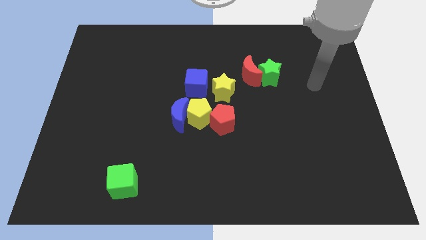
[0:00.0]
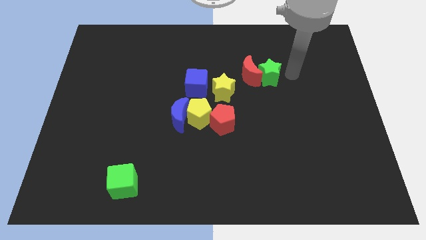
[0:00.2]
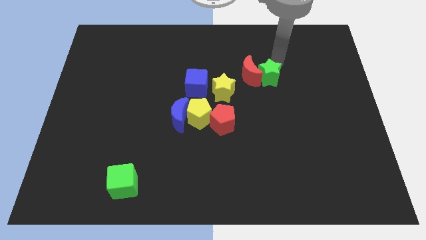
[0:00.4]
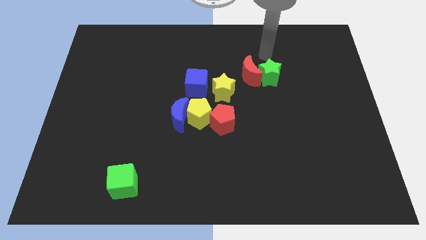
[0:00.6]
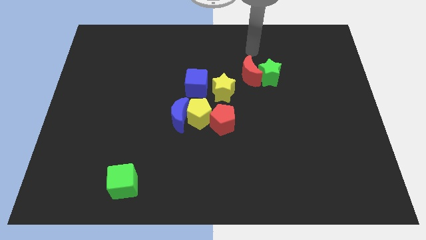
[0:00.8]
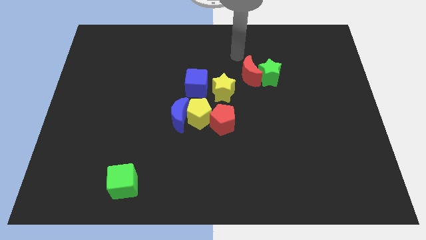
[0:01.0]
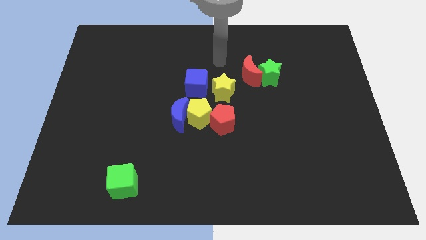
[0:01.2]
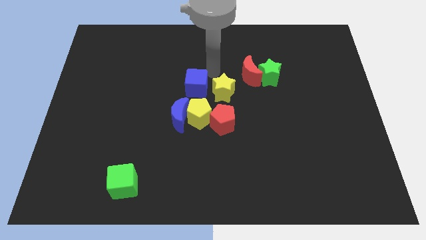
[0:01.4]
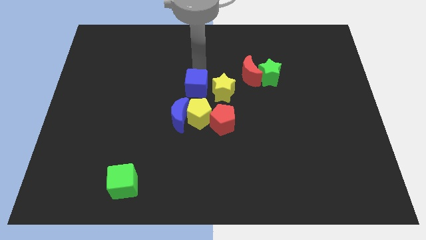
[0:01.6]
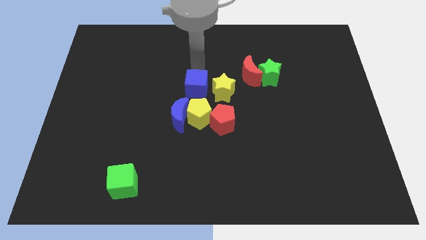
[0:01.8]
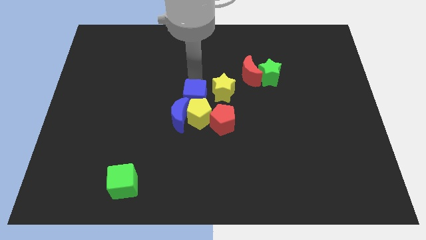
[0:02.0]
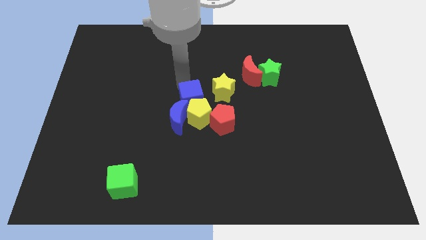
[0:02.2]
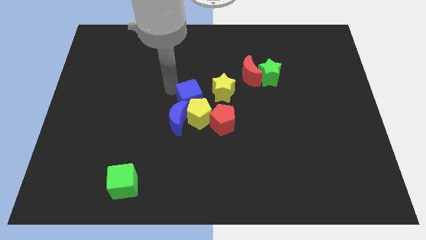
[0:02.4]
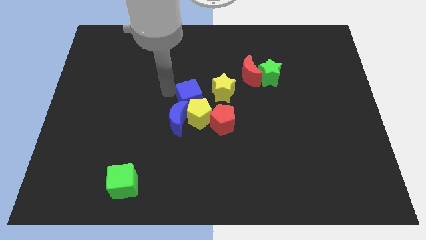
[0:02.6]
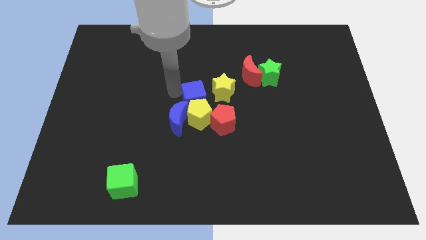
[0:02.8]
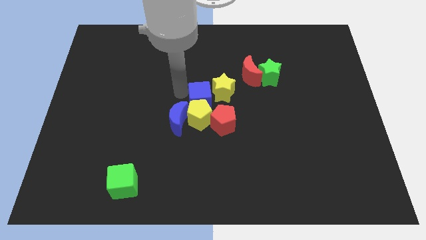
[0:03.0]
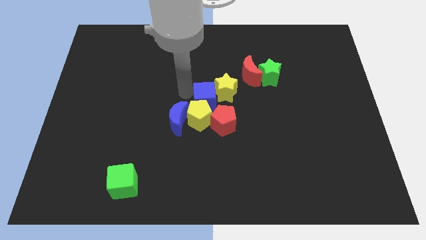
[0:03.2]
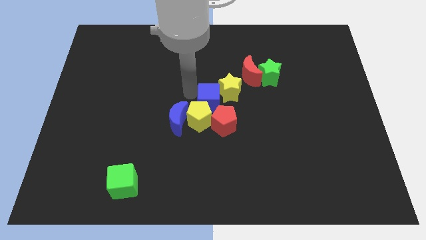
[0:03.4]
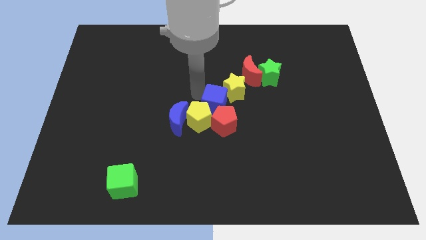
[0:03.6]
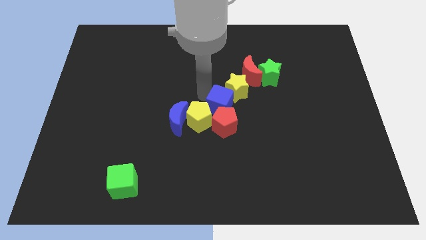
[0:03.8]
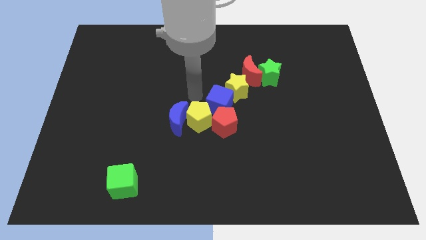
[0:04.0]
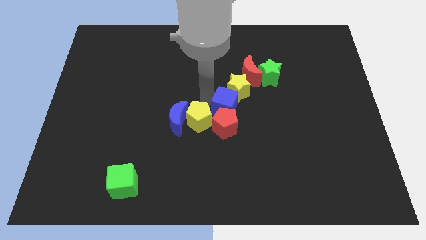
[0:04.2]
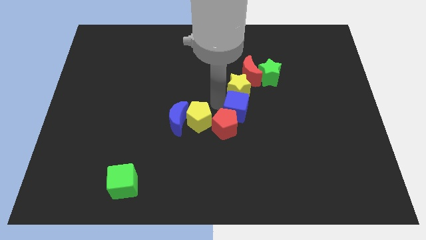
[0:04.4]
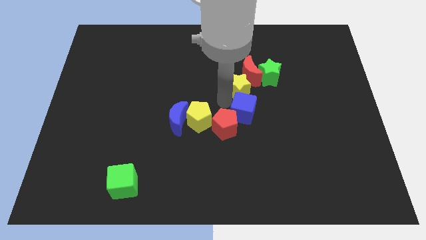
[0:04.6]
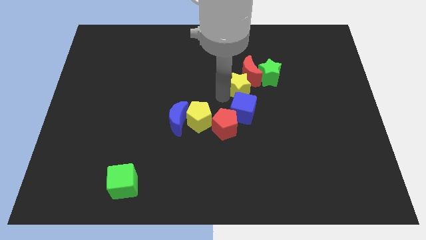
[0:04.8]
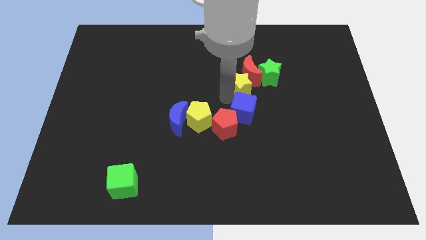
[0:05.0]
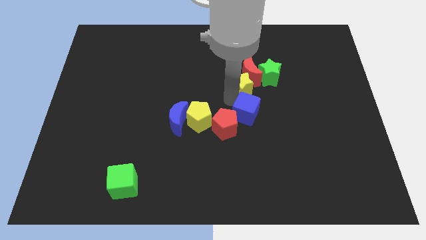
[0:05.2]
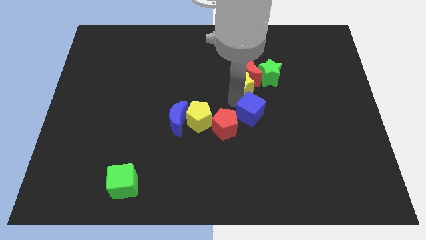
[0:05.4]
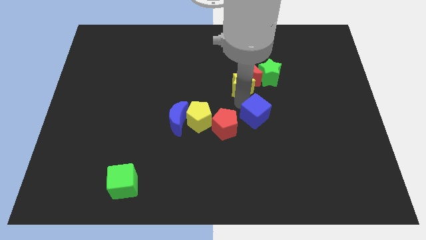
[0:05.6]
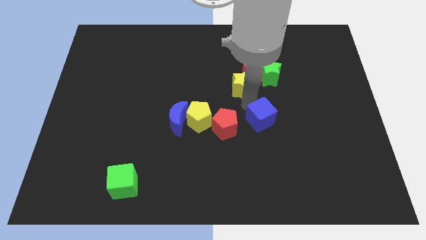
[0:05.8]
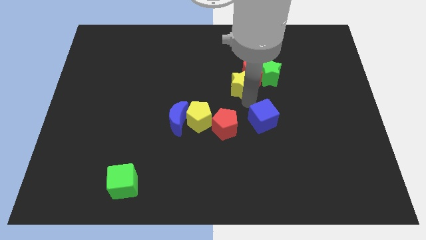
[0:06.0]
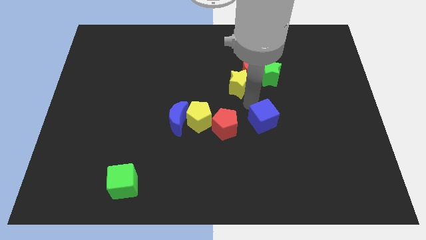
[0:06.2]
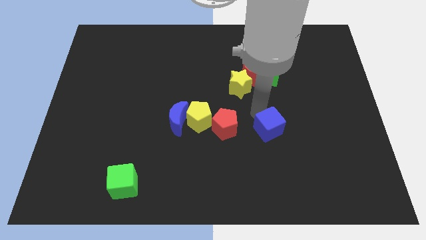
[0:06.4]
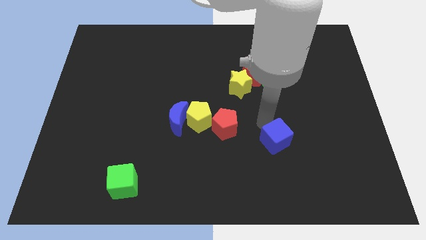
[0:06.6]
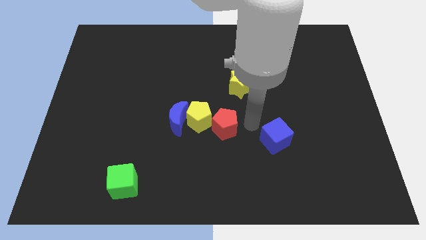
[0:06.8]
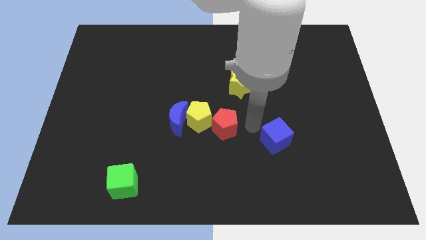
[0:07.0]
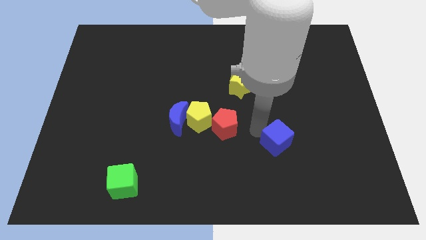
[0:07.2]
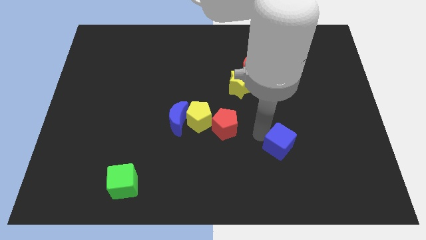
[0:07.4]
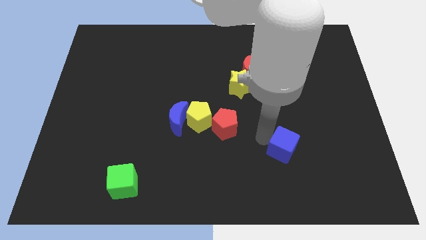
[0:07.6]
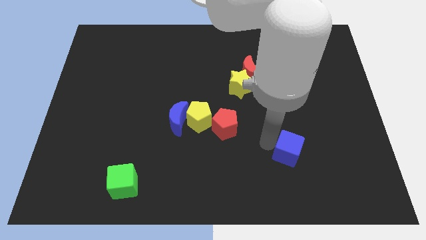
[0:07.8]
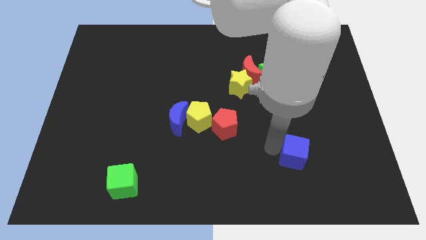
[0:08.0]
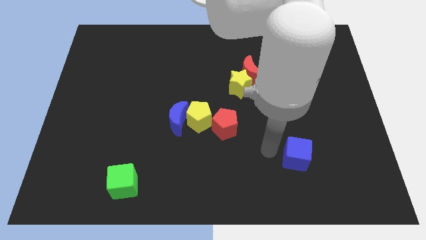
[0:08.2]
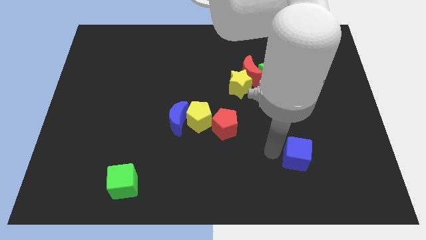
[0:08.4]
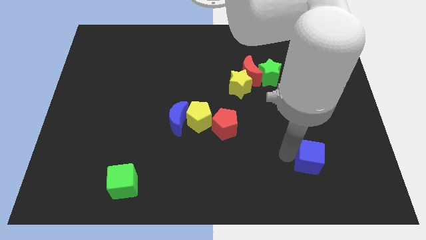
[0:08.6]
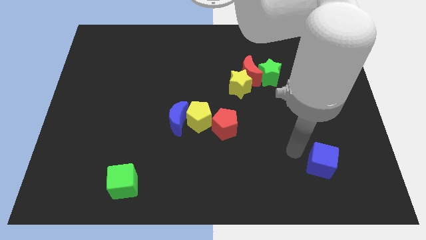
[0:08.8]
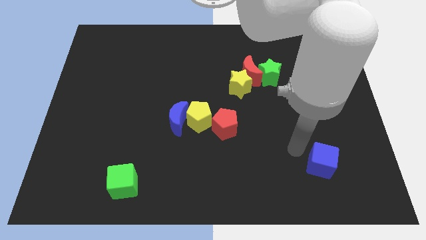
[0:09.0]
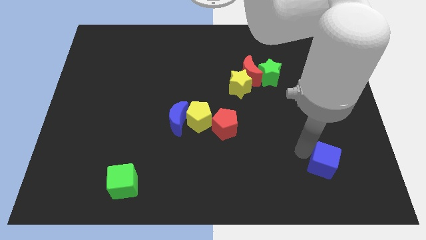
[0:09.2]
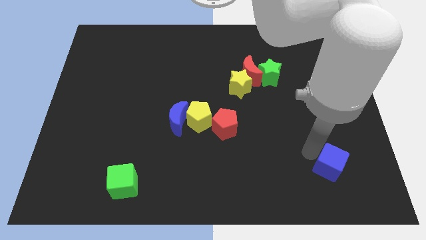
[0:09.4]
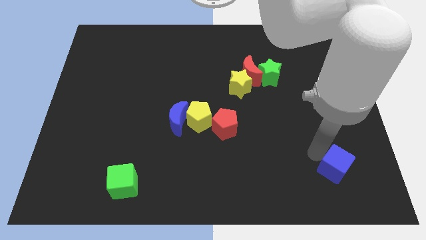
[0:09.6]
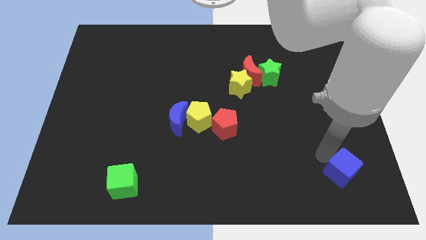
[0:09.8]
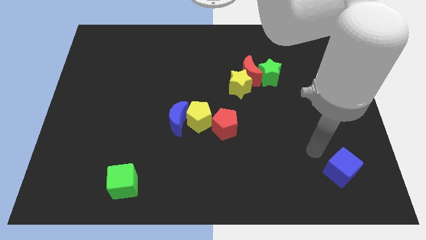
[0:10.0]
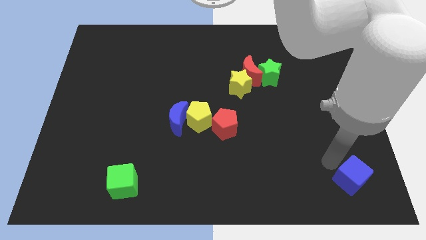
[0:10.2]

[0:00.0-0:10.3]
move the blue cube to the lower right corner

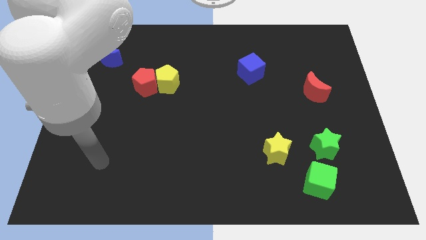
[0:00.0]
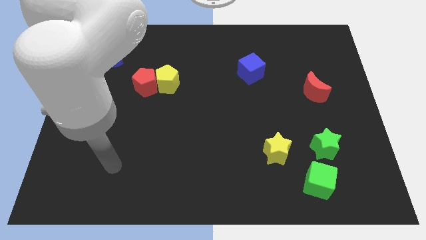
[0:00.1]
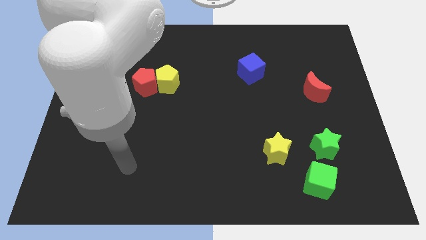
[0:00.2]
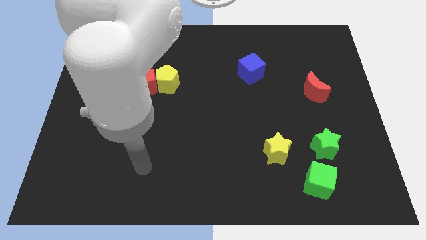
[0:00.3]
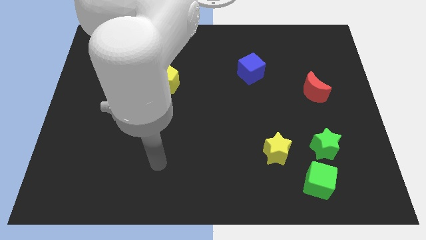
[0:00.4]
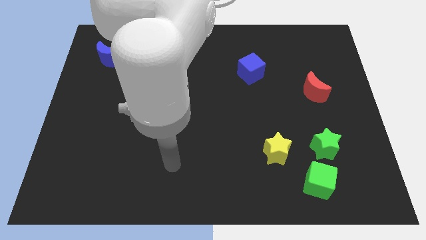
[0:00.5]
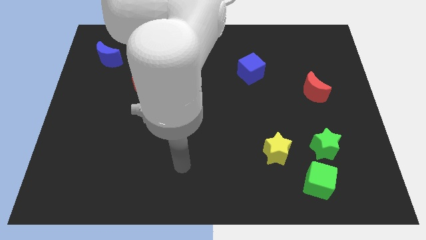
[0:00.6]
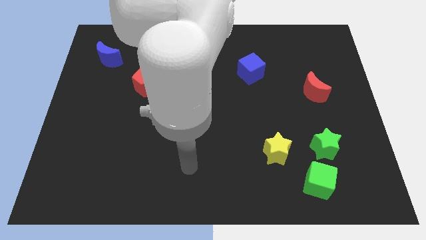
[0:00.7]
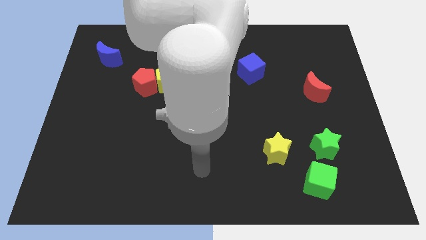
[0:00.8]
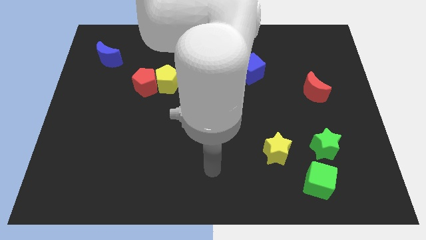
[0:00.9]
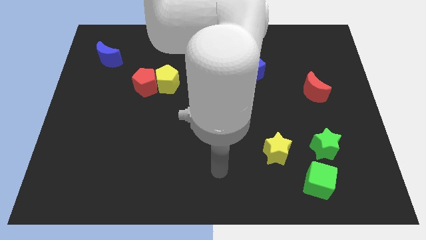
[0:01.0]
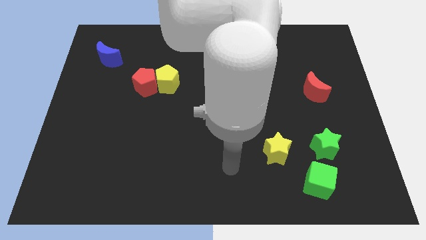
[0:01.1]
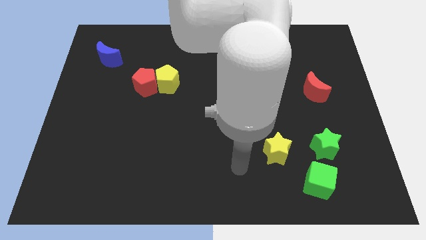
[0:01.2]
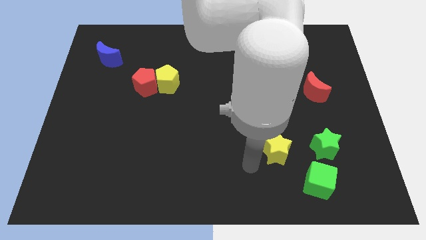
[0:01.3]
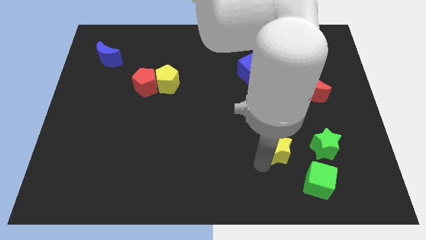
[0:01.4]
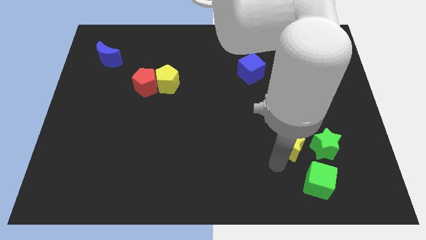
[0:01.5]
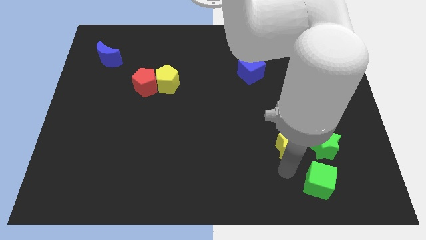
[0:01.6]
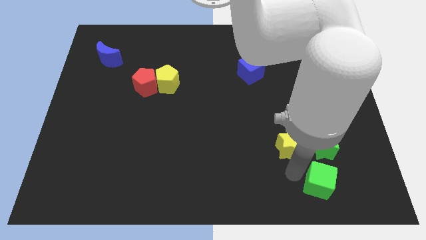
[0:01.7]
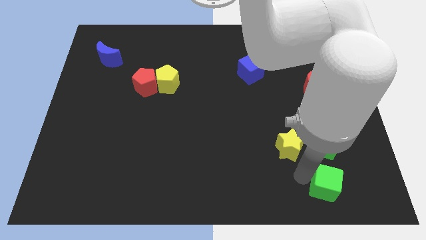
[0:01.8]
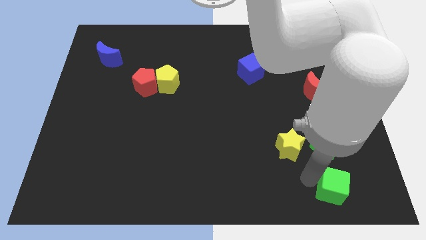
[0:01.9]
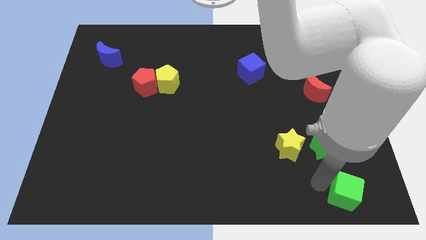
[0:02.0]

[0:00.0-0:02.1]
move the green cube to the bottom right

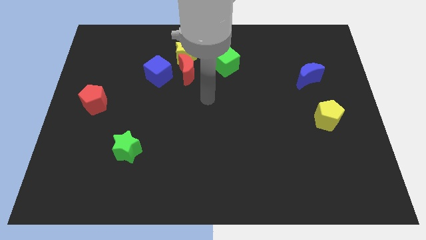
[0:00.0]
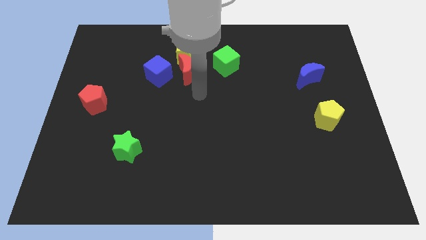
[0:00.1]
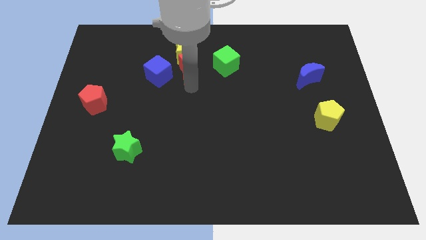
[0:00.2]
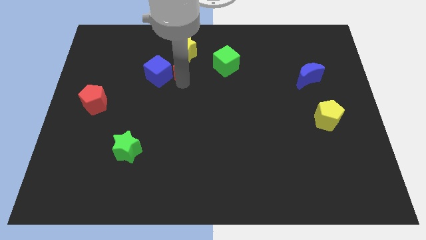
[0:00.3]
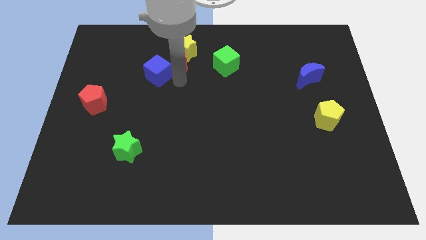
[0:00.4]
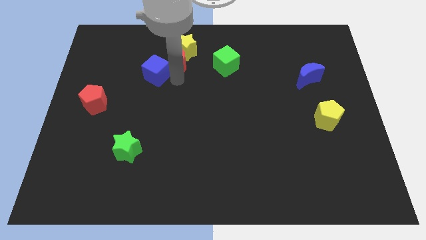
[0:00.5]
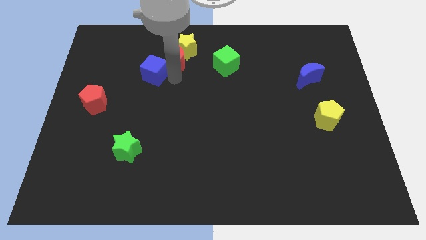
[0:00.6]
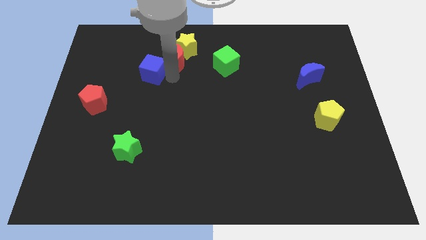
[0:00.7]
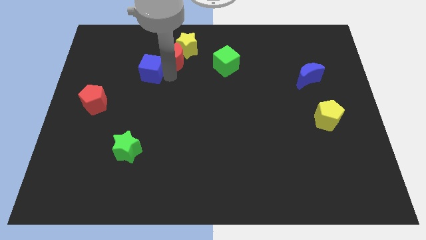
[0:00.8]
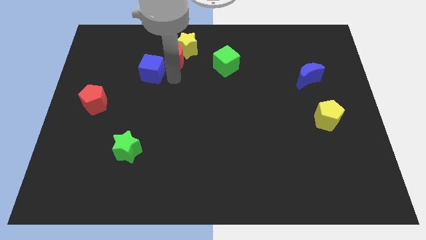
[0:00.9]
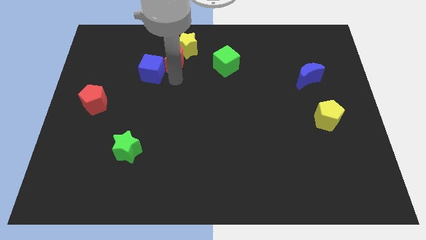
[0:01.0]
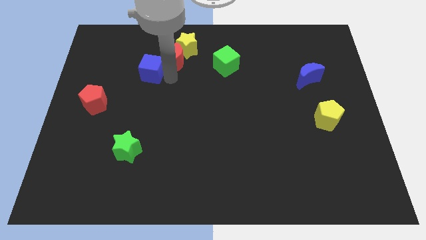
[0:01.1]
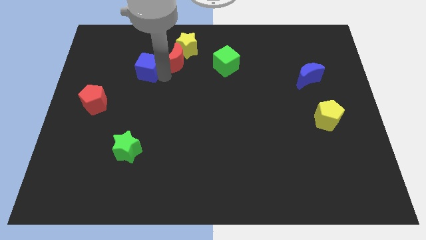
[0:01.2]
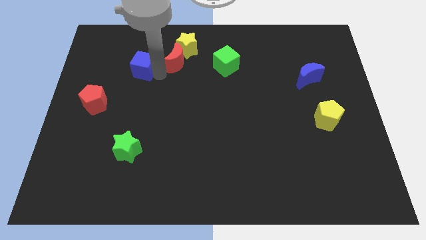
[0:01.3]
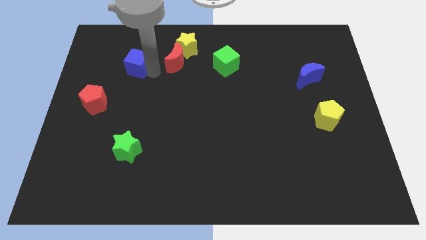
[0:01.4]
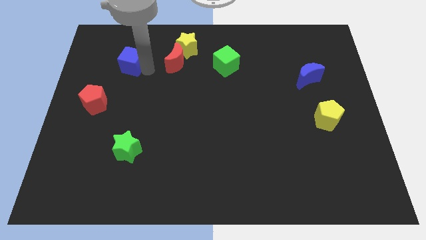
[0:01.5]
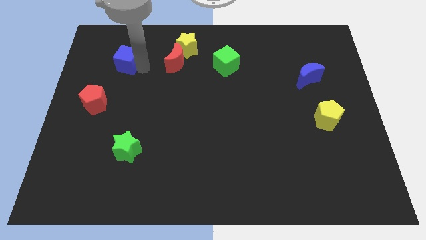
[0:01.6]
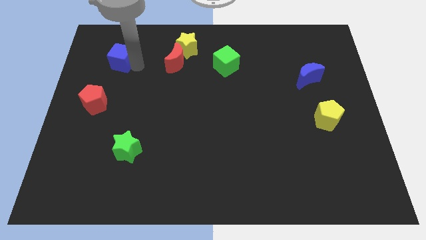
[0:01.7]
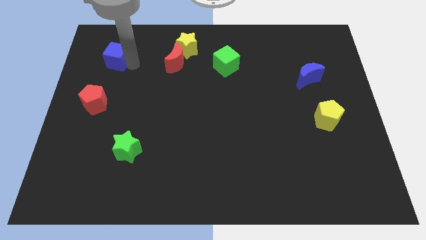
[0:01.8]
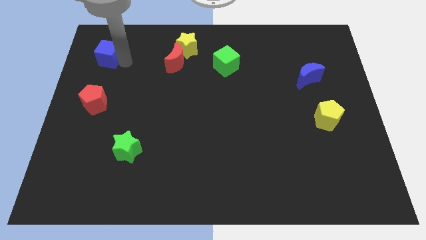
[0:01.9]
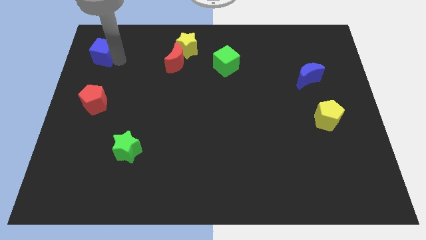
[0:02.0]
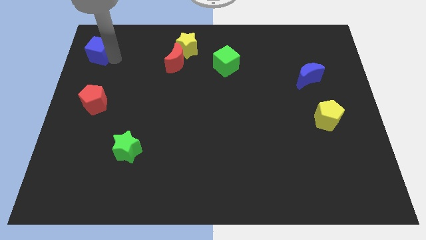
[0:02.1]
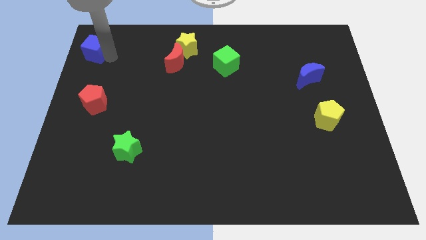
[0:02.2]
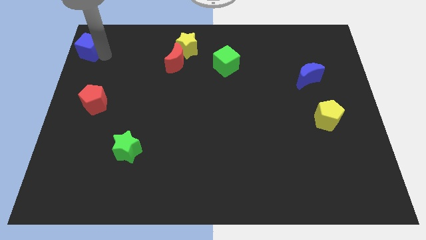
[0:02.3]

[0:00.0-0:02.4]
move the blue cube to the top left of the board
